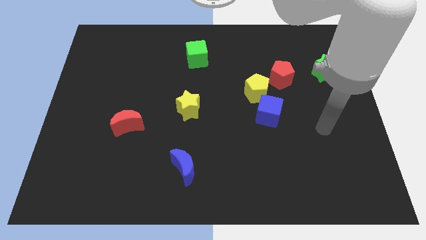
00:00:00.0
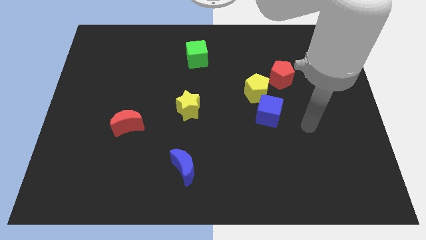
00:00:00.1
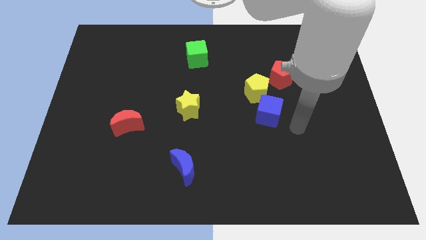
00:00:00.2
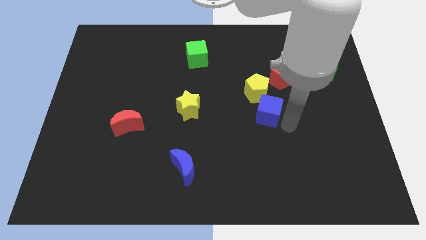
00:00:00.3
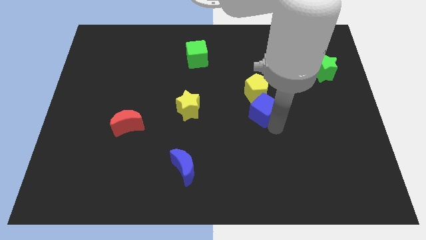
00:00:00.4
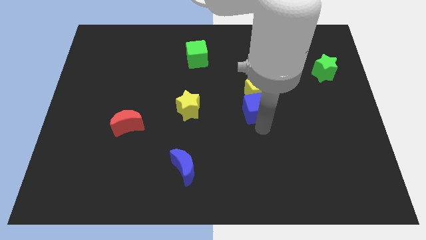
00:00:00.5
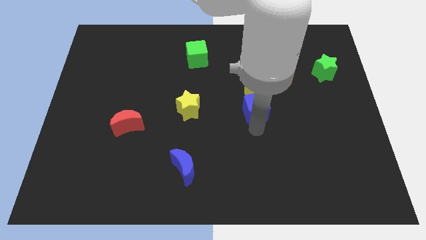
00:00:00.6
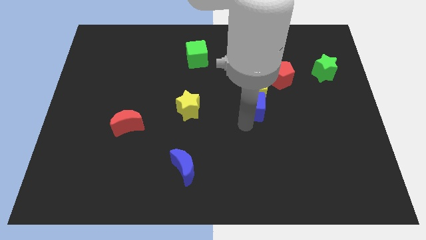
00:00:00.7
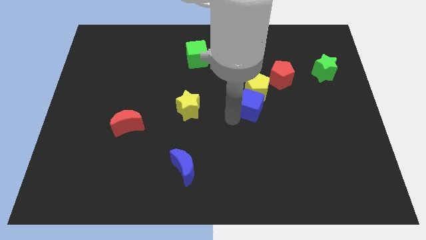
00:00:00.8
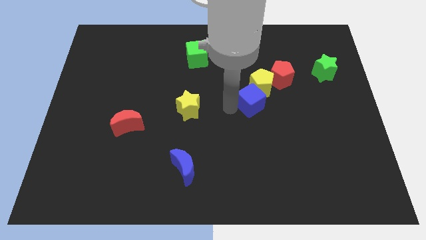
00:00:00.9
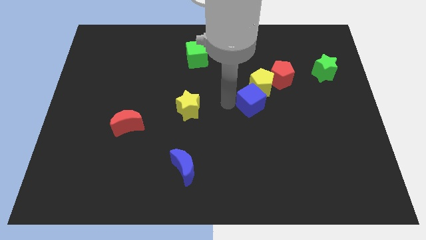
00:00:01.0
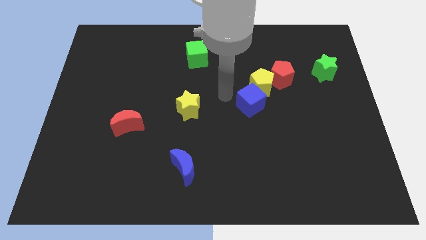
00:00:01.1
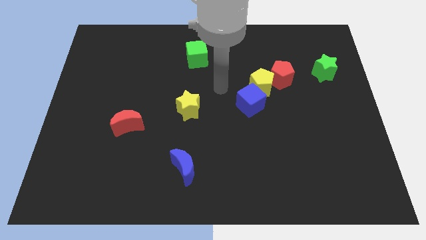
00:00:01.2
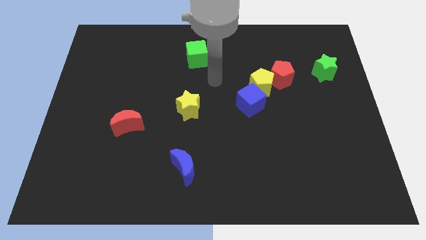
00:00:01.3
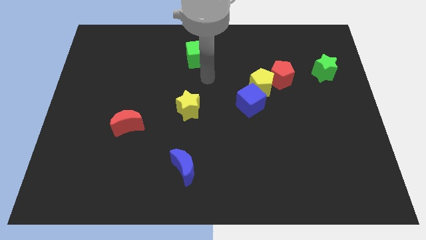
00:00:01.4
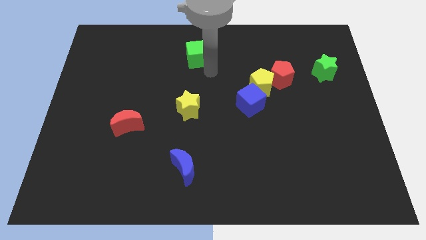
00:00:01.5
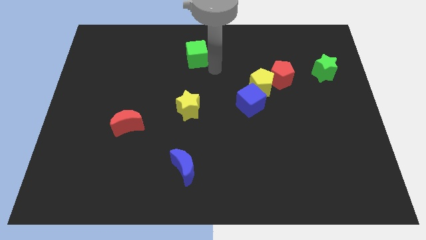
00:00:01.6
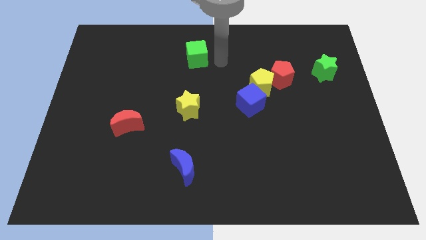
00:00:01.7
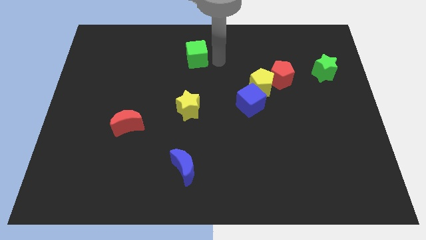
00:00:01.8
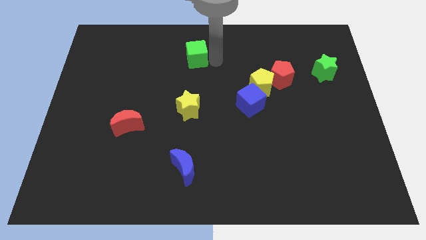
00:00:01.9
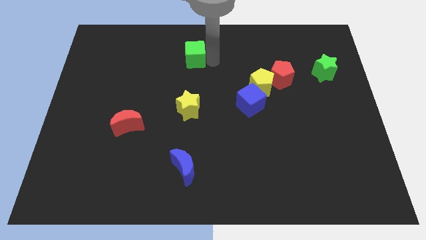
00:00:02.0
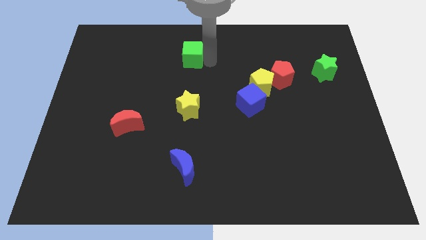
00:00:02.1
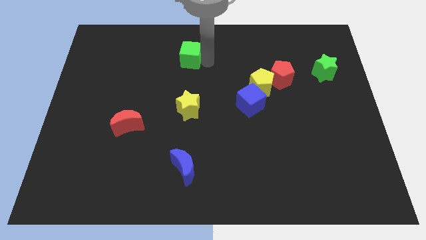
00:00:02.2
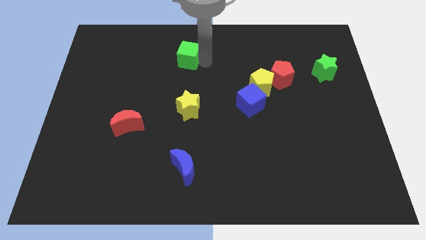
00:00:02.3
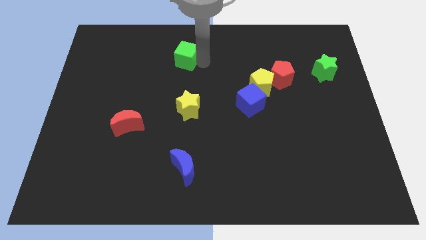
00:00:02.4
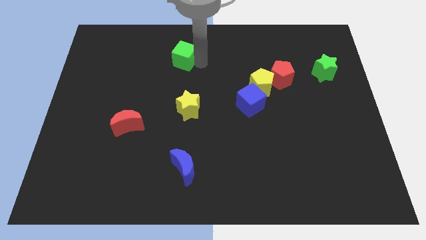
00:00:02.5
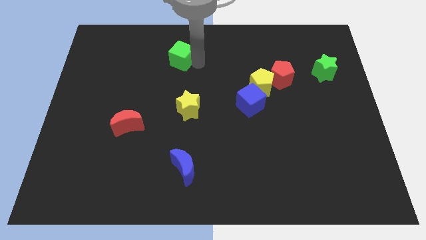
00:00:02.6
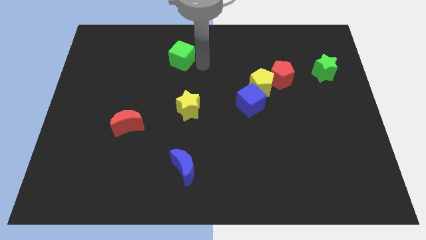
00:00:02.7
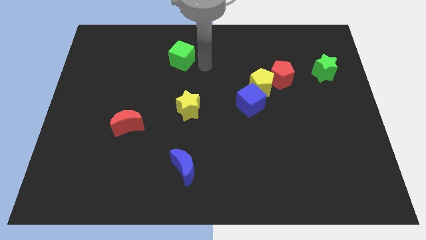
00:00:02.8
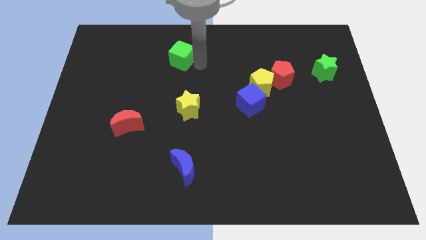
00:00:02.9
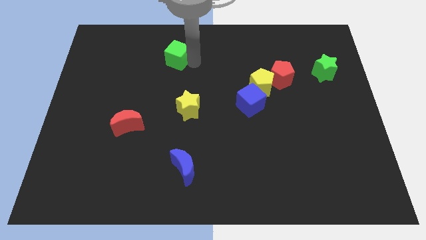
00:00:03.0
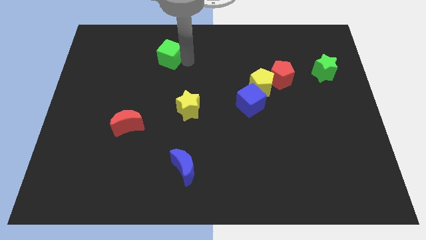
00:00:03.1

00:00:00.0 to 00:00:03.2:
slightly move the green cube to the left

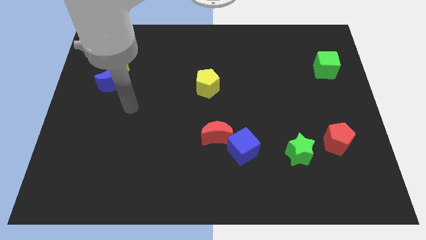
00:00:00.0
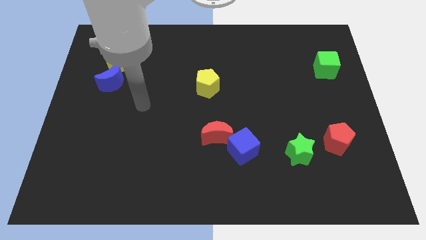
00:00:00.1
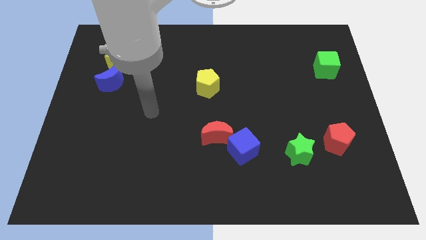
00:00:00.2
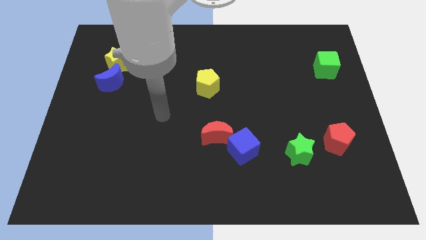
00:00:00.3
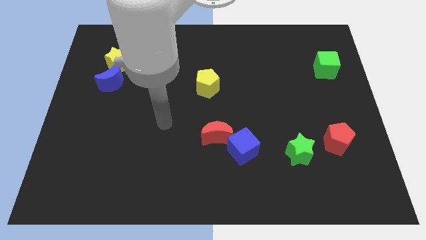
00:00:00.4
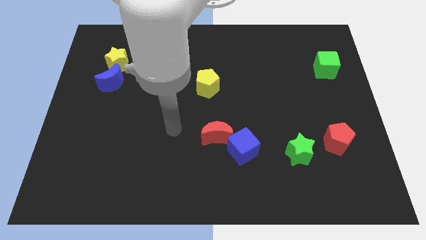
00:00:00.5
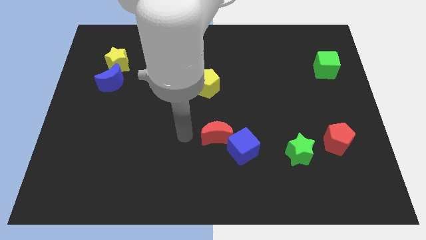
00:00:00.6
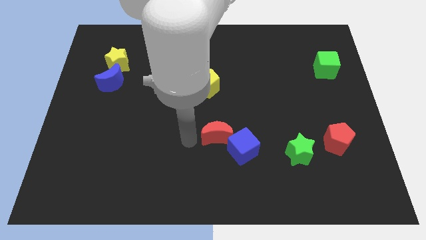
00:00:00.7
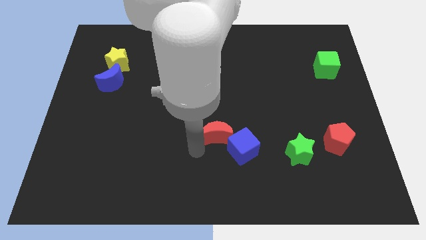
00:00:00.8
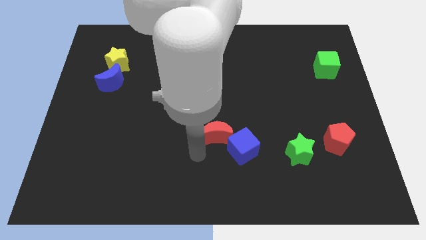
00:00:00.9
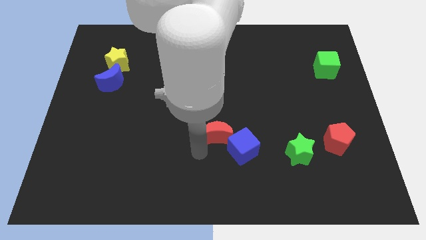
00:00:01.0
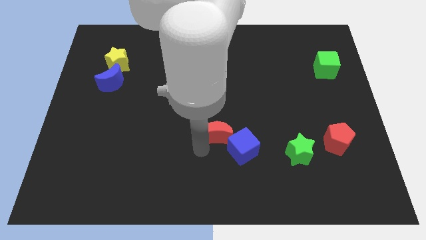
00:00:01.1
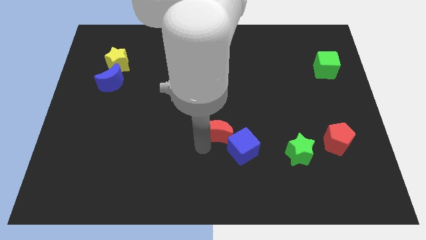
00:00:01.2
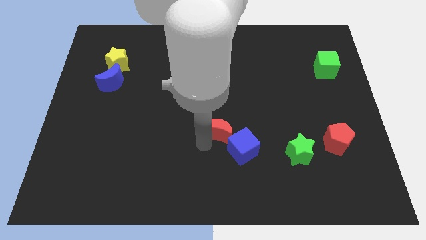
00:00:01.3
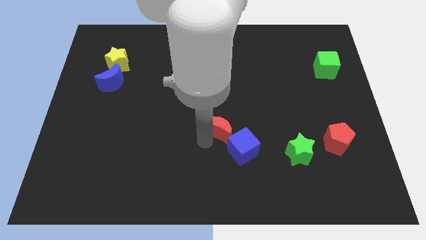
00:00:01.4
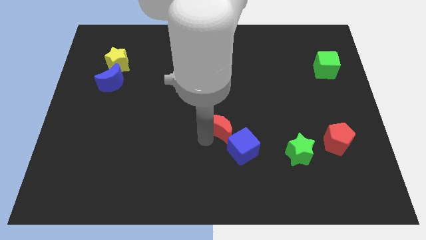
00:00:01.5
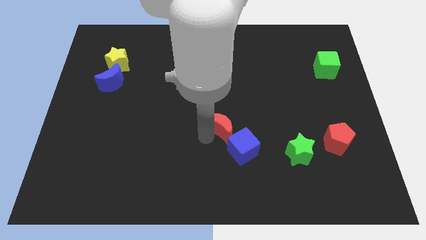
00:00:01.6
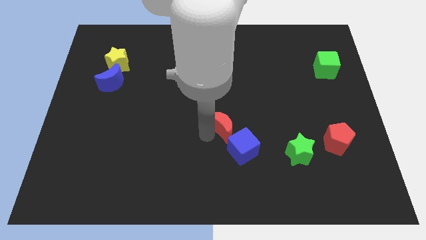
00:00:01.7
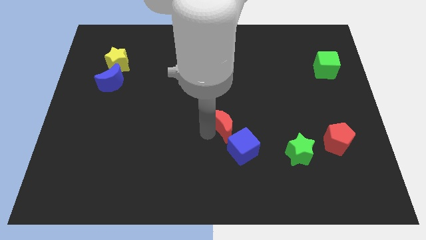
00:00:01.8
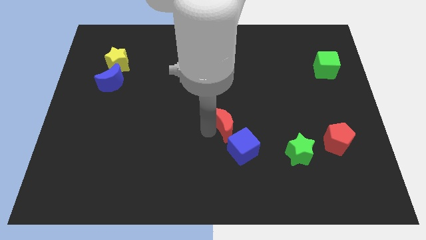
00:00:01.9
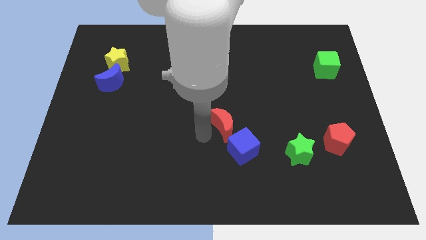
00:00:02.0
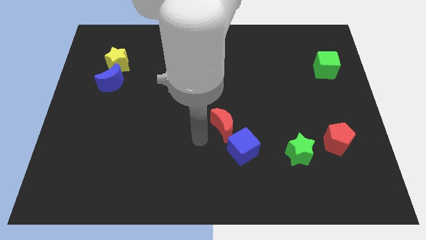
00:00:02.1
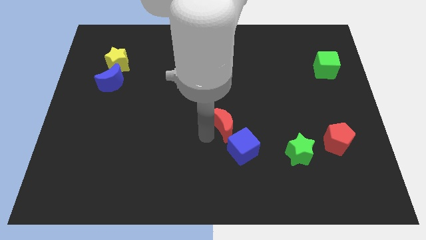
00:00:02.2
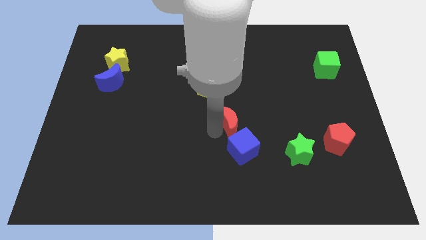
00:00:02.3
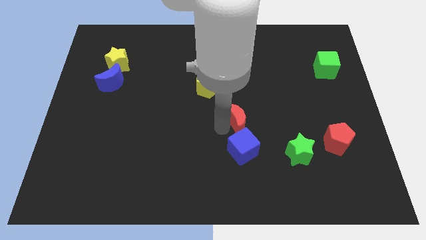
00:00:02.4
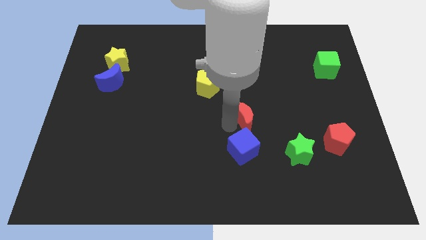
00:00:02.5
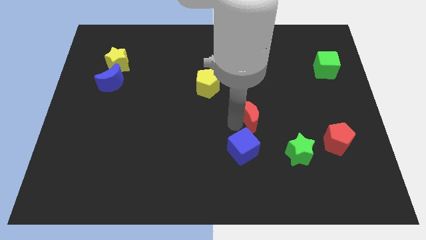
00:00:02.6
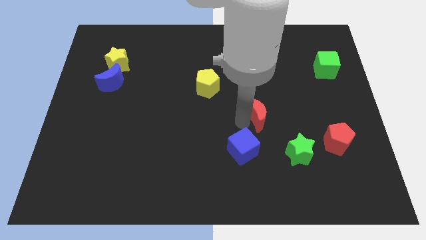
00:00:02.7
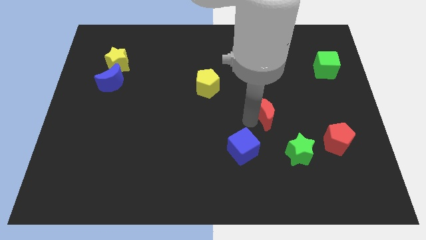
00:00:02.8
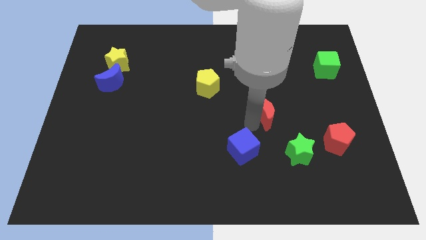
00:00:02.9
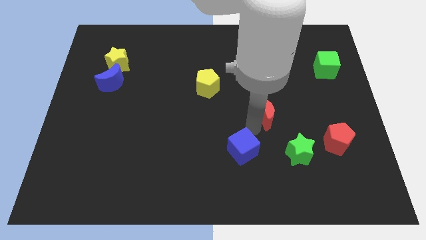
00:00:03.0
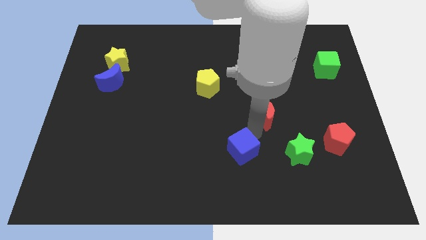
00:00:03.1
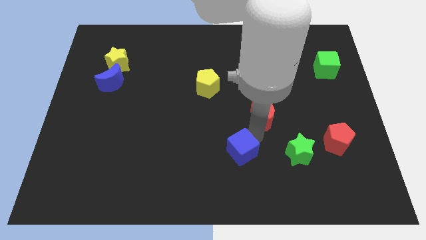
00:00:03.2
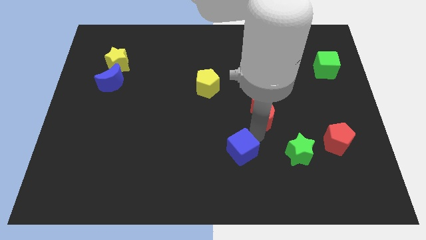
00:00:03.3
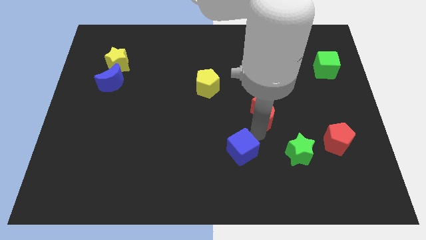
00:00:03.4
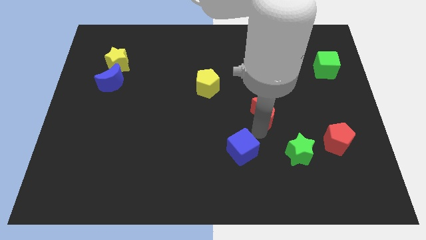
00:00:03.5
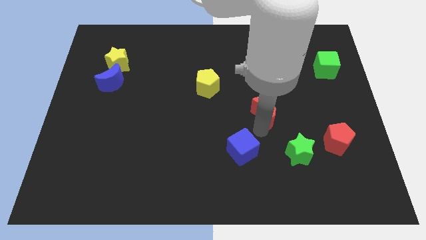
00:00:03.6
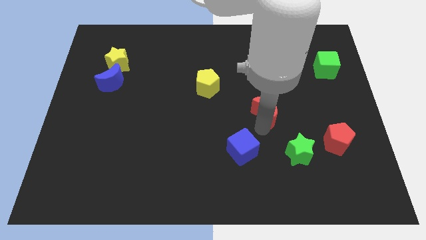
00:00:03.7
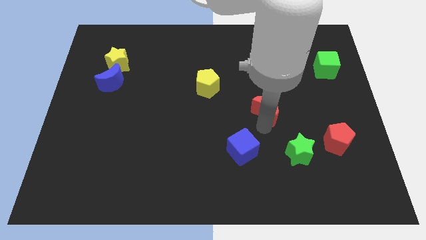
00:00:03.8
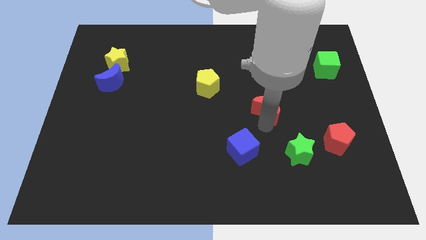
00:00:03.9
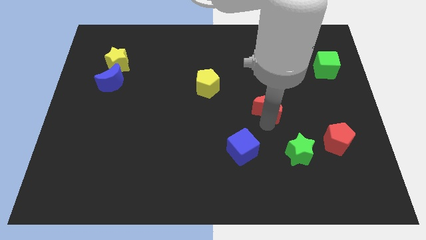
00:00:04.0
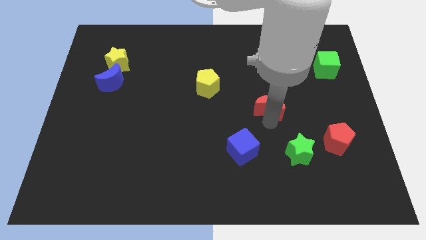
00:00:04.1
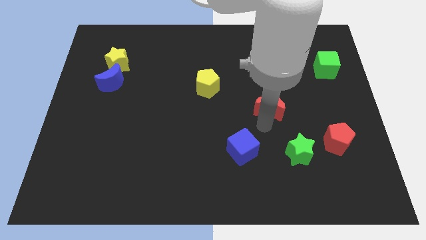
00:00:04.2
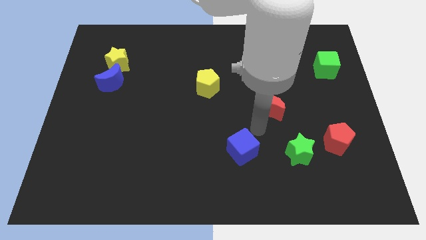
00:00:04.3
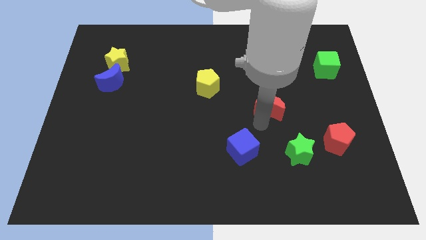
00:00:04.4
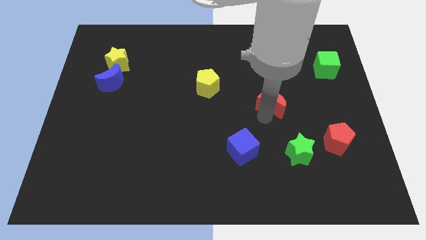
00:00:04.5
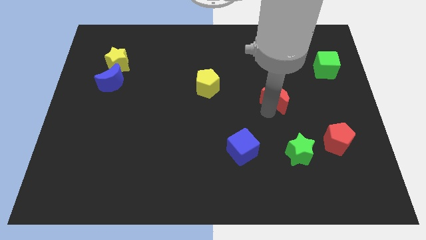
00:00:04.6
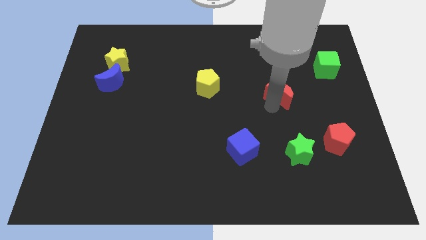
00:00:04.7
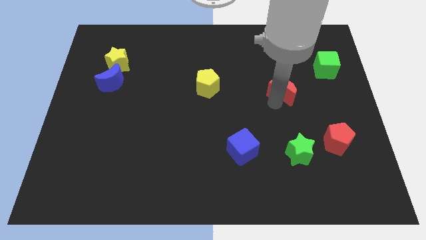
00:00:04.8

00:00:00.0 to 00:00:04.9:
move the red moon upwards and then right
